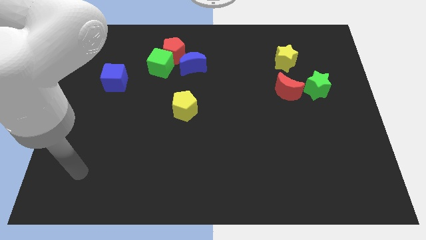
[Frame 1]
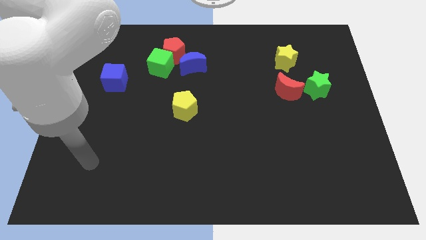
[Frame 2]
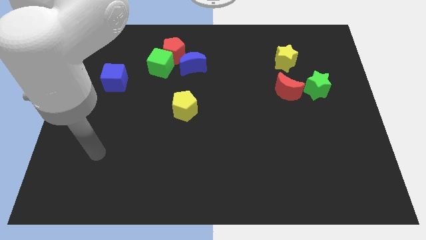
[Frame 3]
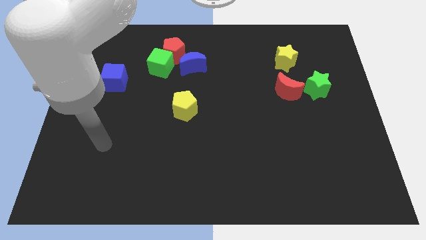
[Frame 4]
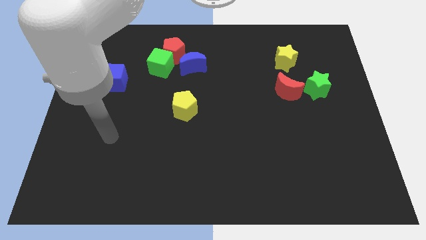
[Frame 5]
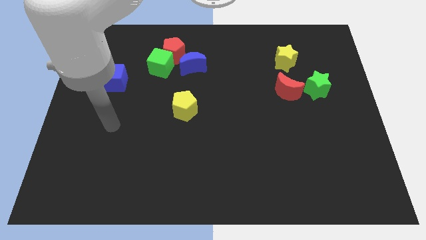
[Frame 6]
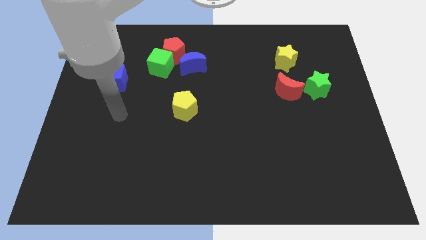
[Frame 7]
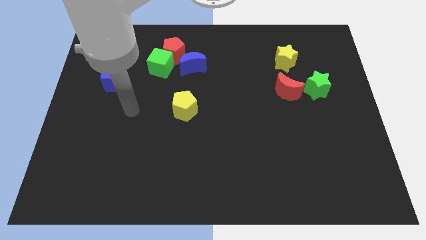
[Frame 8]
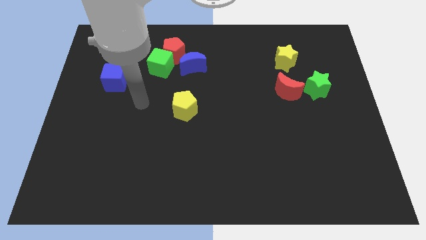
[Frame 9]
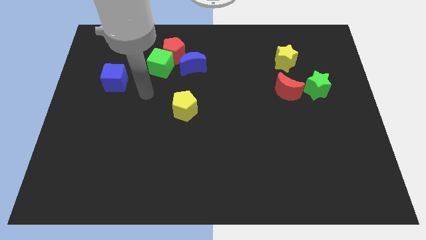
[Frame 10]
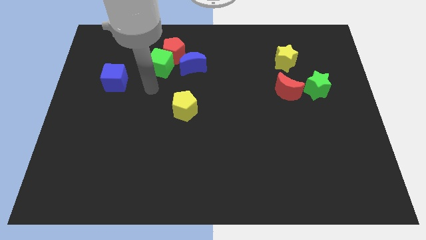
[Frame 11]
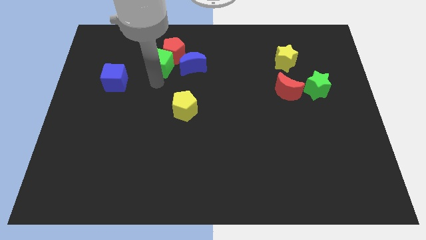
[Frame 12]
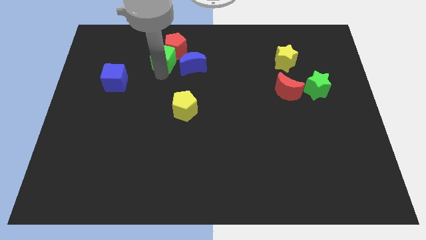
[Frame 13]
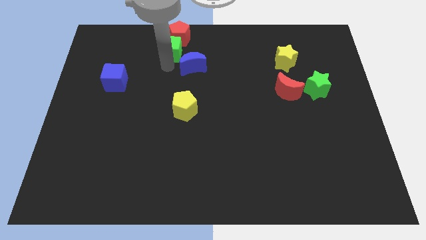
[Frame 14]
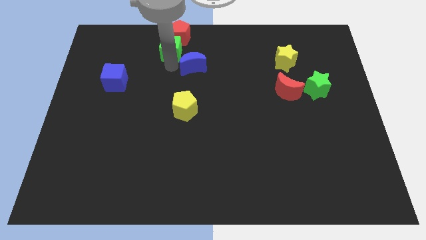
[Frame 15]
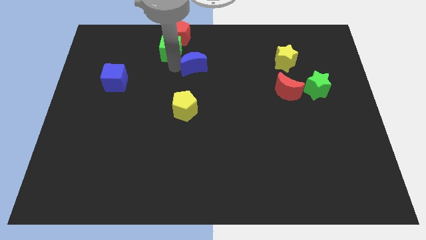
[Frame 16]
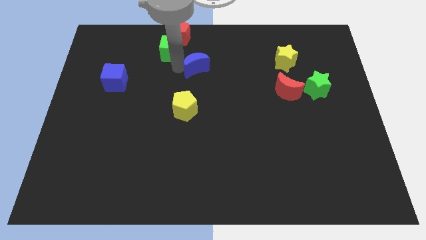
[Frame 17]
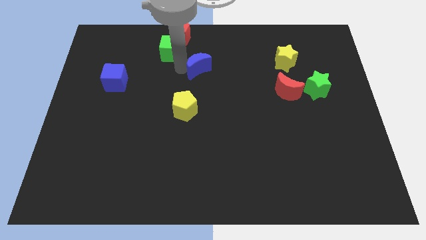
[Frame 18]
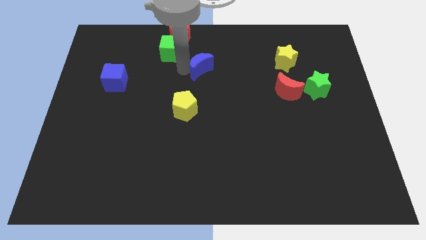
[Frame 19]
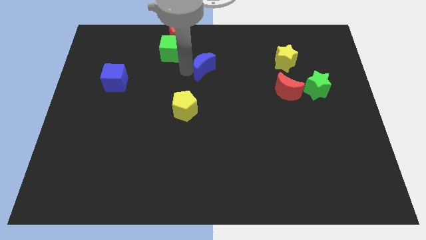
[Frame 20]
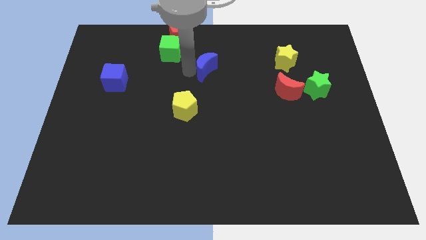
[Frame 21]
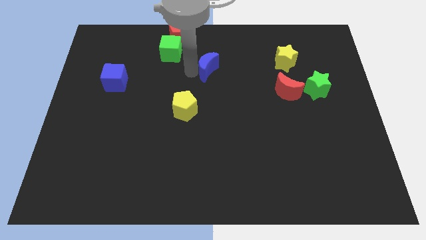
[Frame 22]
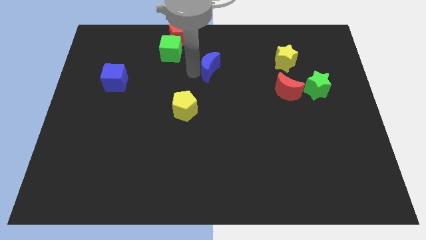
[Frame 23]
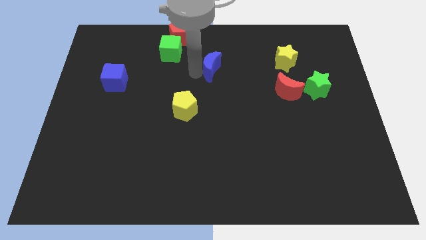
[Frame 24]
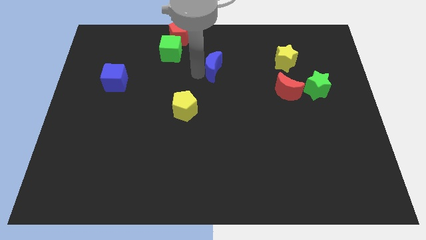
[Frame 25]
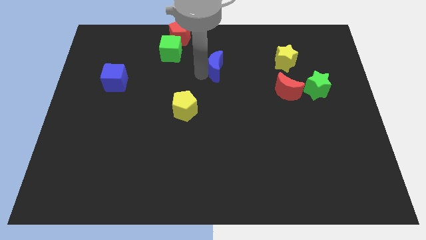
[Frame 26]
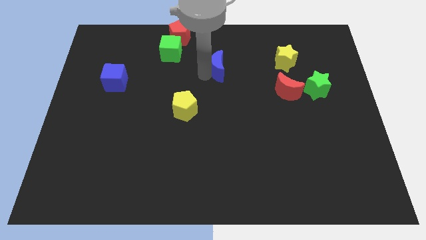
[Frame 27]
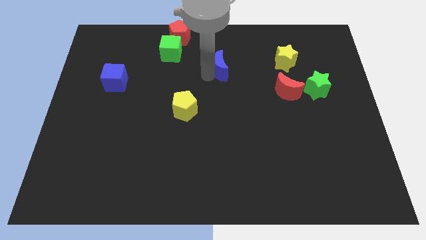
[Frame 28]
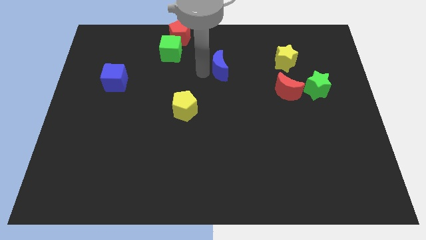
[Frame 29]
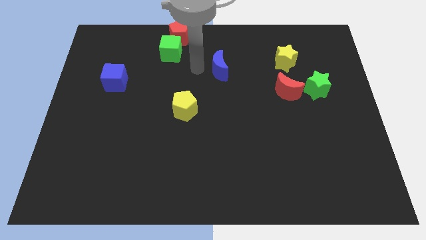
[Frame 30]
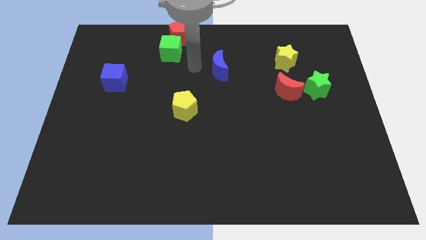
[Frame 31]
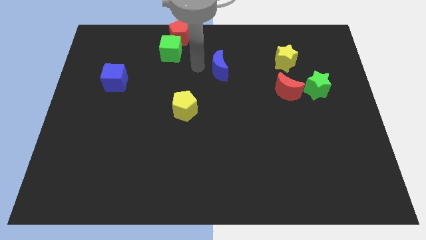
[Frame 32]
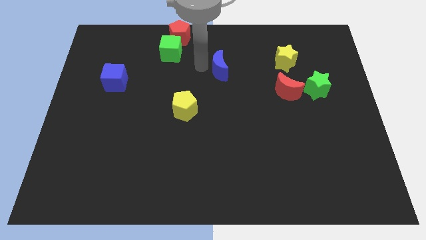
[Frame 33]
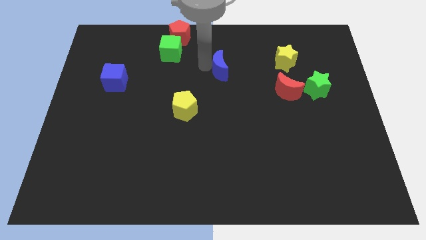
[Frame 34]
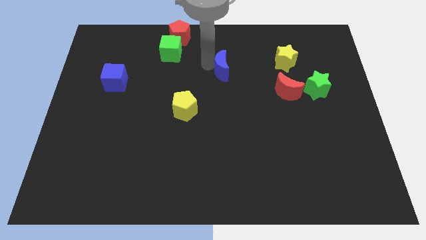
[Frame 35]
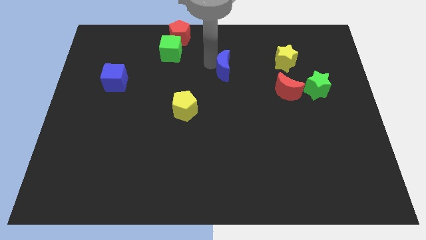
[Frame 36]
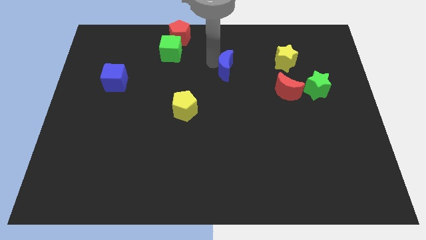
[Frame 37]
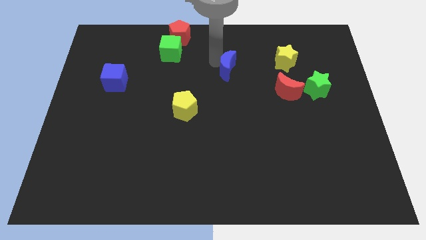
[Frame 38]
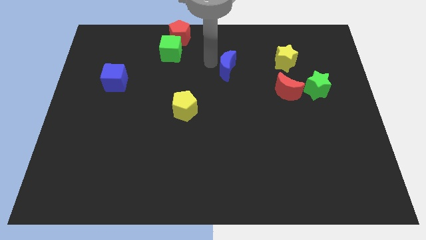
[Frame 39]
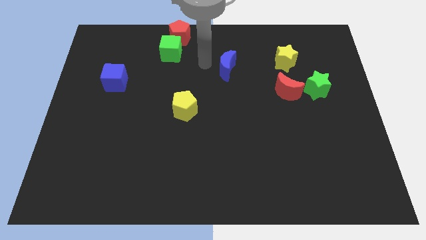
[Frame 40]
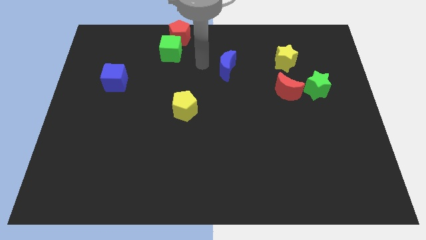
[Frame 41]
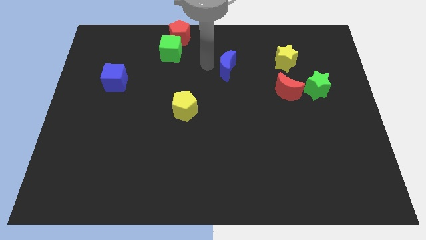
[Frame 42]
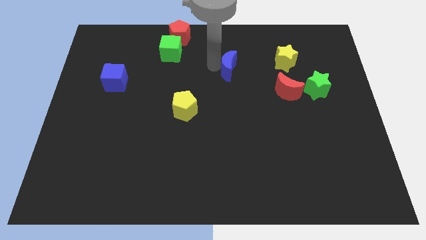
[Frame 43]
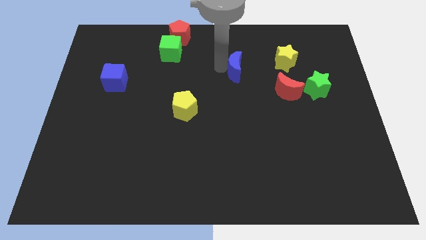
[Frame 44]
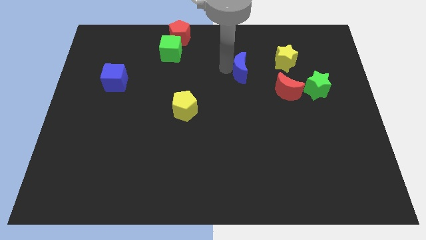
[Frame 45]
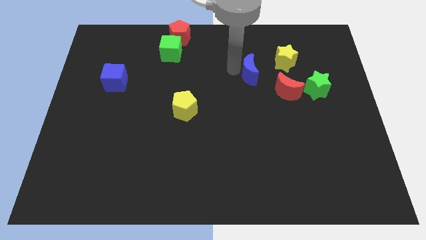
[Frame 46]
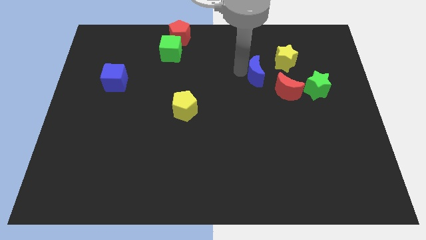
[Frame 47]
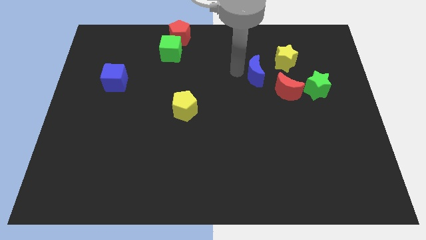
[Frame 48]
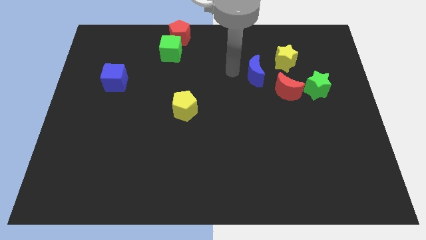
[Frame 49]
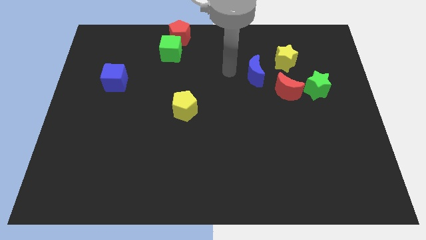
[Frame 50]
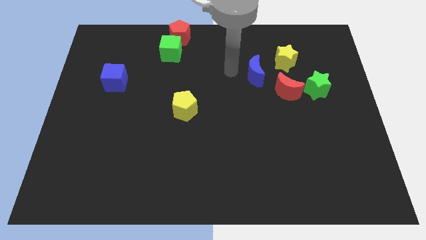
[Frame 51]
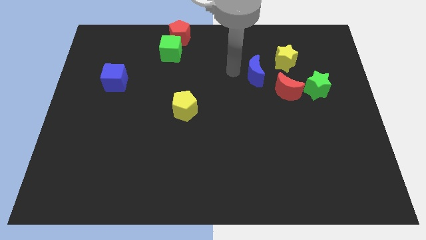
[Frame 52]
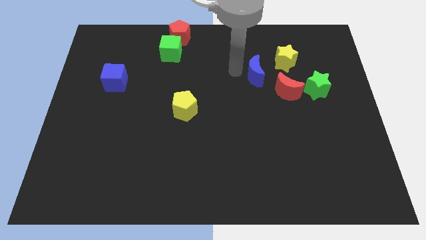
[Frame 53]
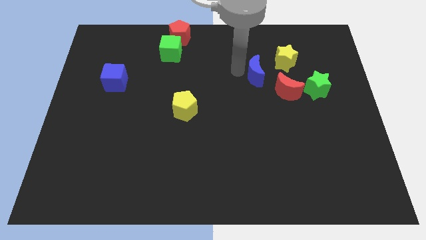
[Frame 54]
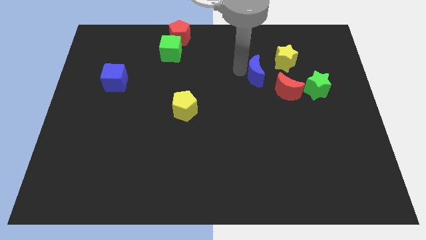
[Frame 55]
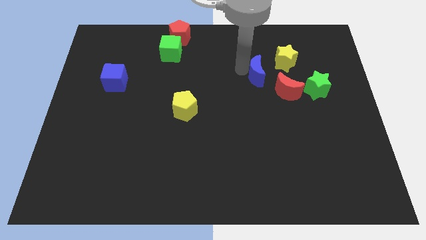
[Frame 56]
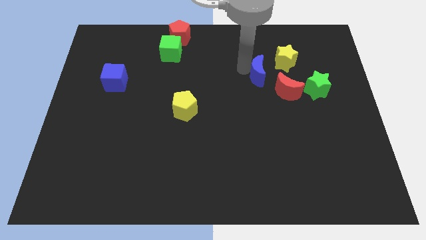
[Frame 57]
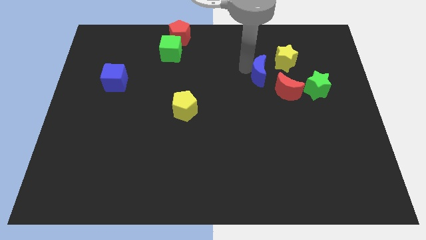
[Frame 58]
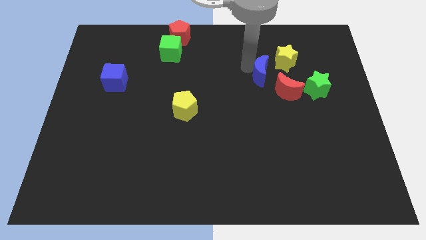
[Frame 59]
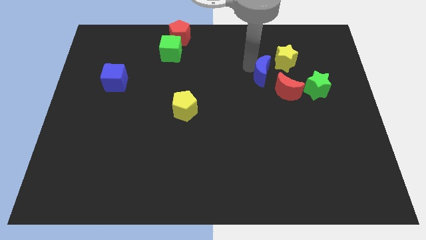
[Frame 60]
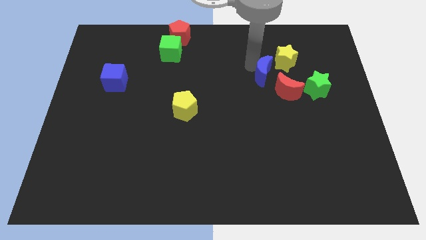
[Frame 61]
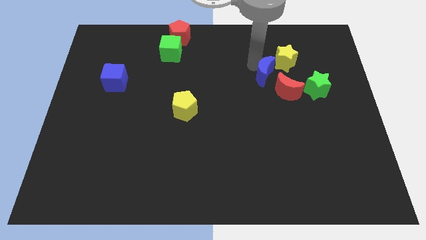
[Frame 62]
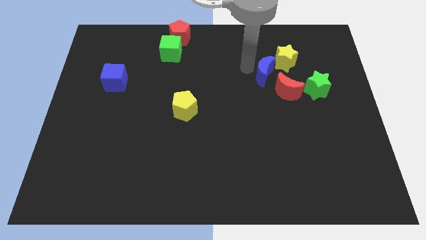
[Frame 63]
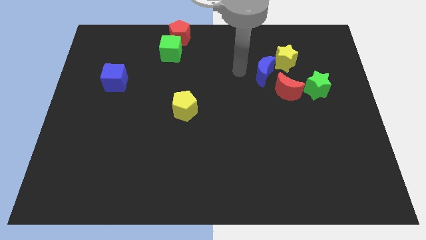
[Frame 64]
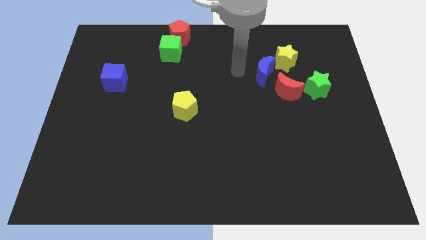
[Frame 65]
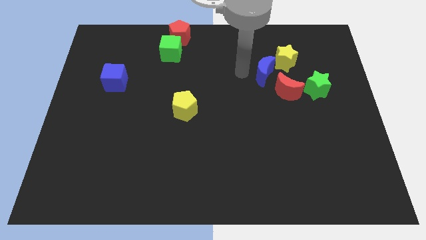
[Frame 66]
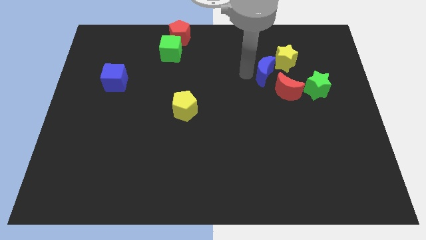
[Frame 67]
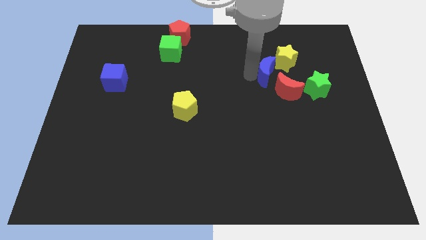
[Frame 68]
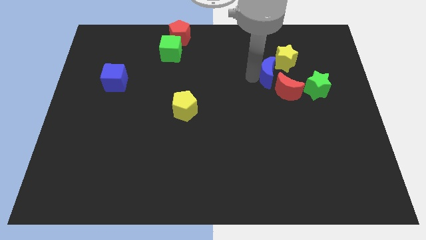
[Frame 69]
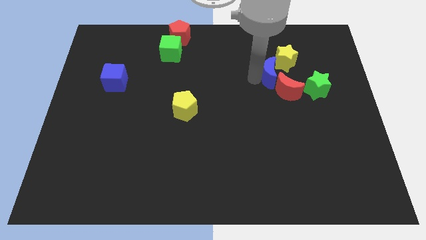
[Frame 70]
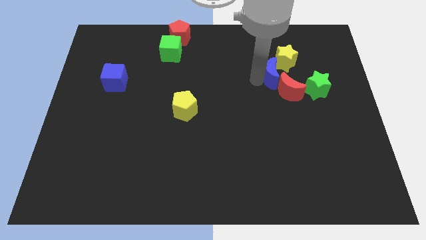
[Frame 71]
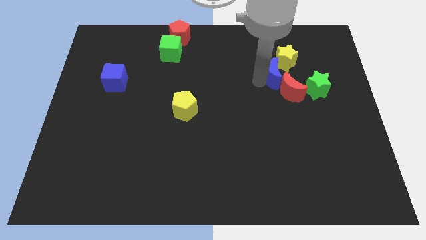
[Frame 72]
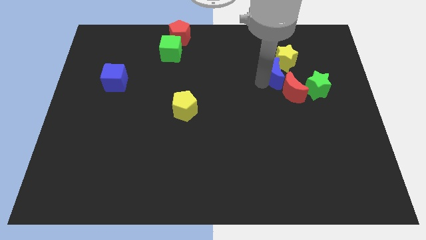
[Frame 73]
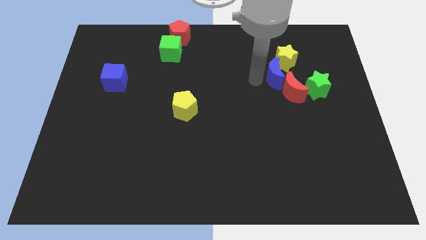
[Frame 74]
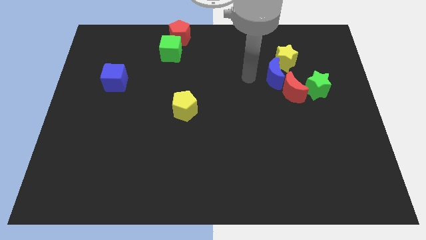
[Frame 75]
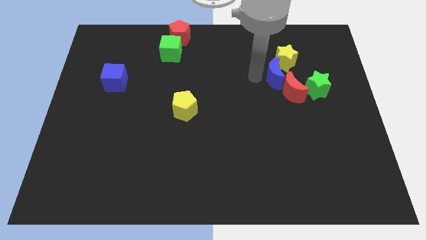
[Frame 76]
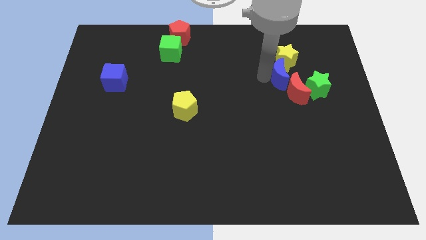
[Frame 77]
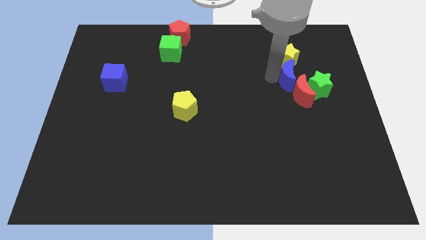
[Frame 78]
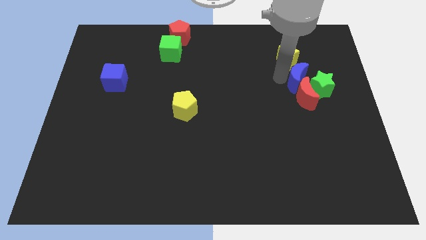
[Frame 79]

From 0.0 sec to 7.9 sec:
push the blue moon diagonally up and to the right of the red moon
